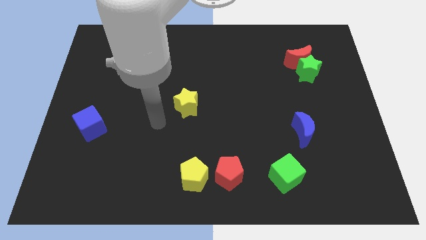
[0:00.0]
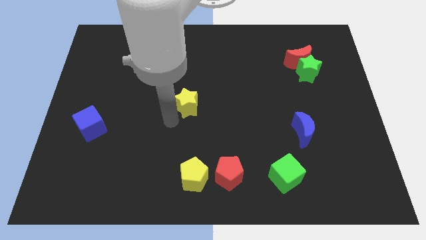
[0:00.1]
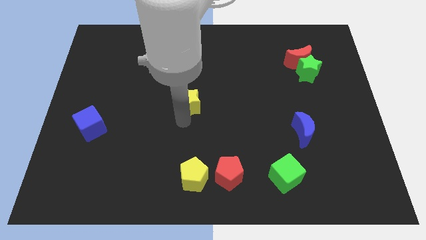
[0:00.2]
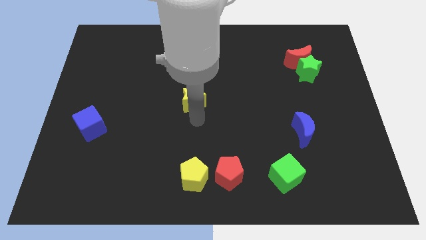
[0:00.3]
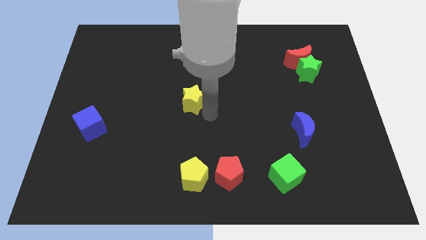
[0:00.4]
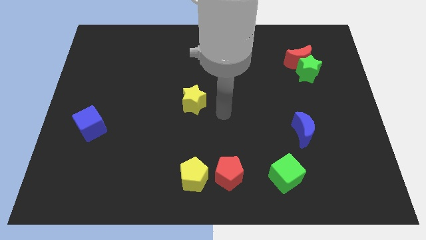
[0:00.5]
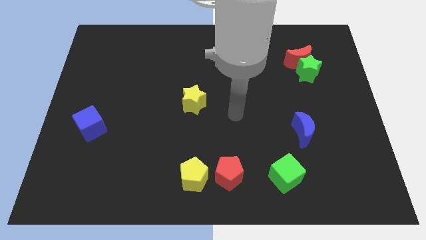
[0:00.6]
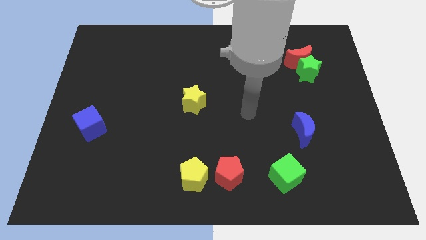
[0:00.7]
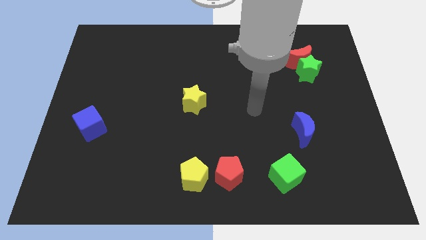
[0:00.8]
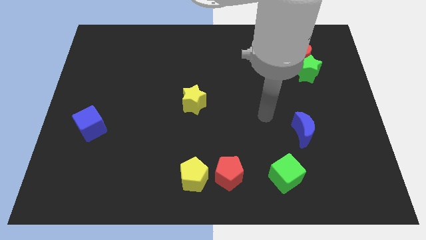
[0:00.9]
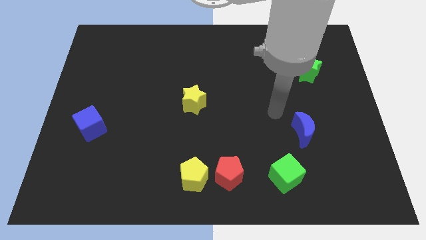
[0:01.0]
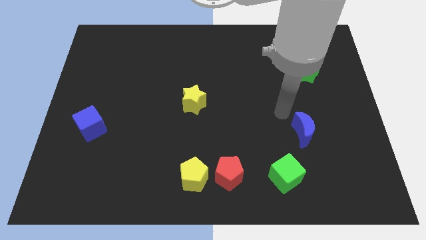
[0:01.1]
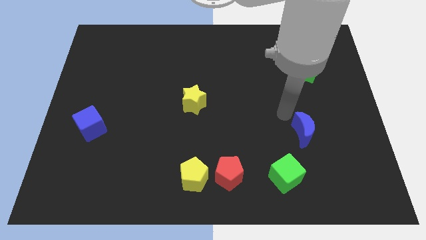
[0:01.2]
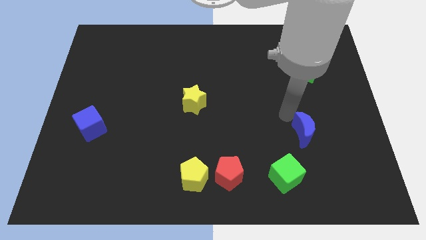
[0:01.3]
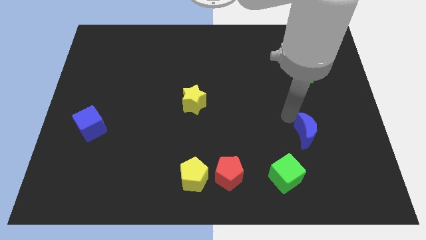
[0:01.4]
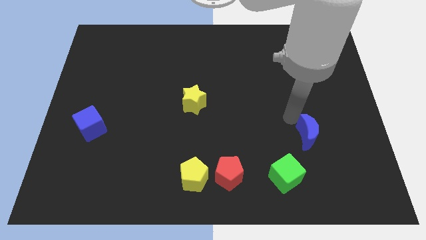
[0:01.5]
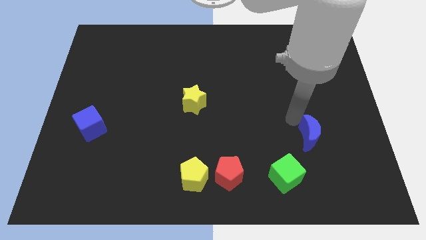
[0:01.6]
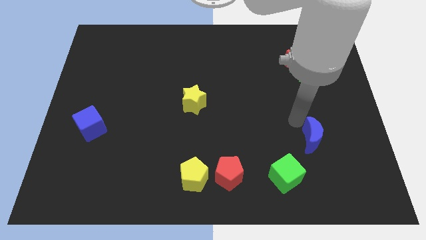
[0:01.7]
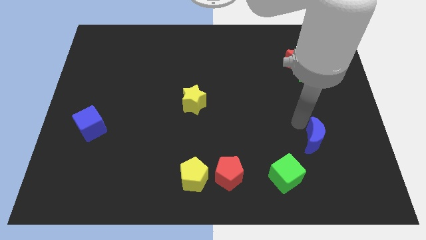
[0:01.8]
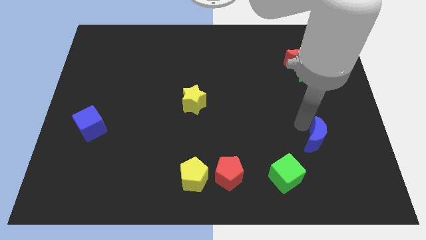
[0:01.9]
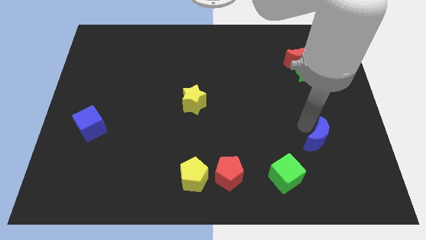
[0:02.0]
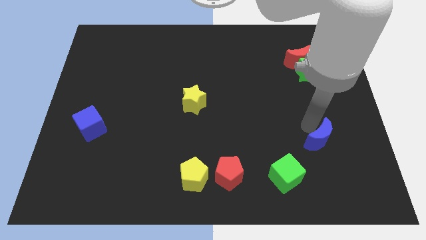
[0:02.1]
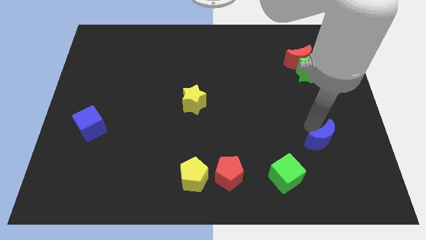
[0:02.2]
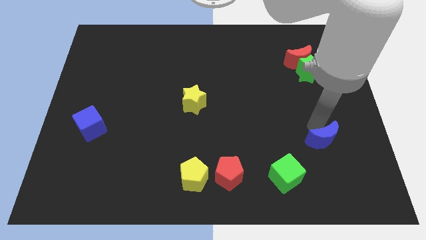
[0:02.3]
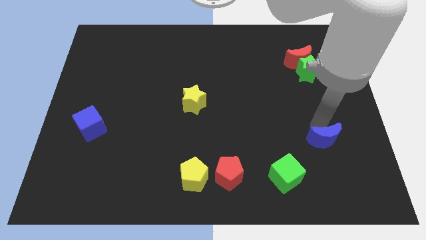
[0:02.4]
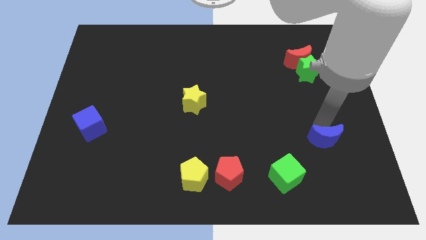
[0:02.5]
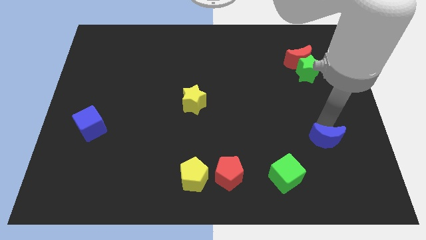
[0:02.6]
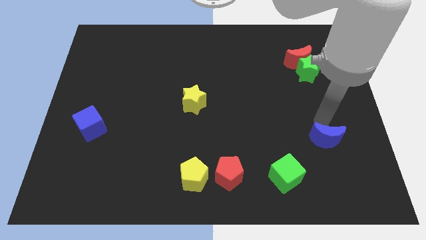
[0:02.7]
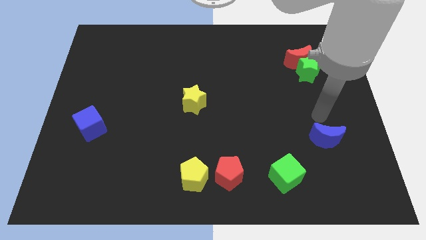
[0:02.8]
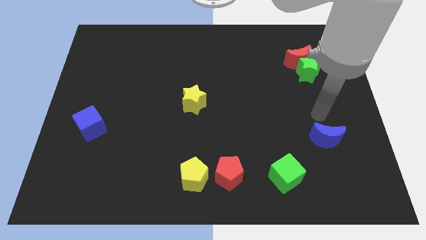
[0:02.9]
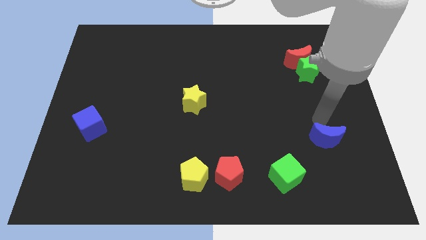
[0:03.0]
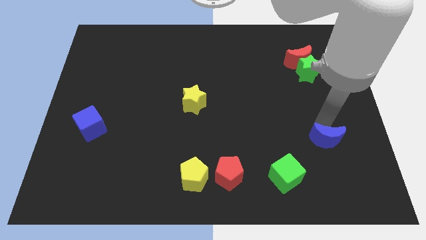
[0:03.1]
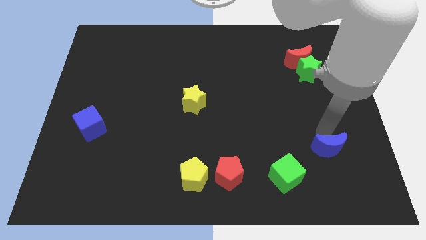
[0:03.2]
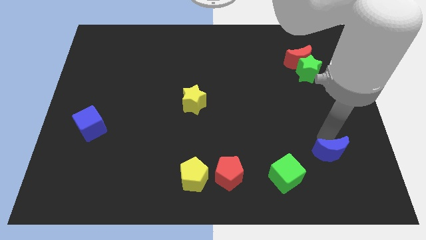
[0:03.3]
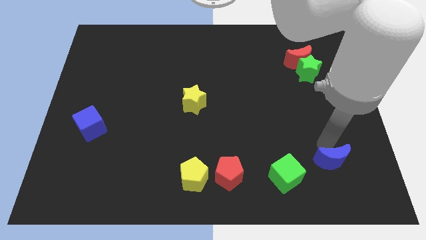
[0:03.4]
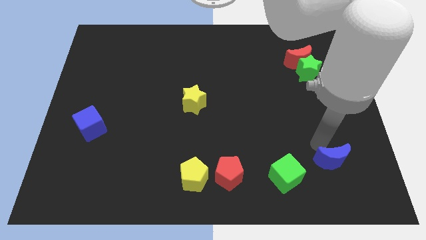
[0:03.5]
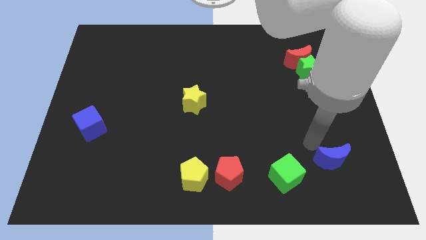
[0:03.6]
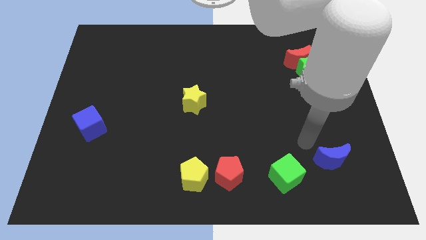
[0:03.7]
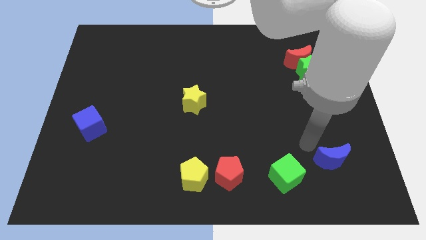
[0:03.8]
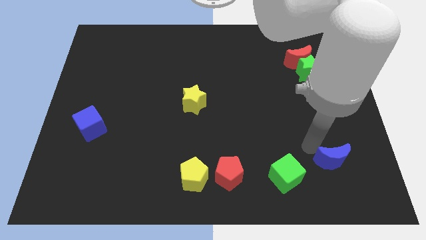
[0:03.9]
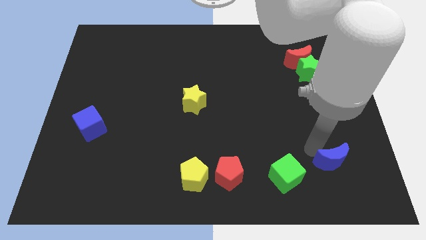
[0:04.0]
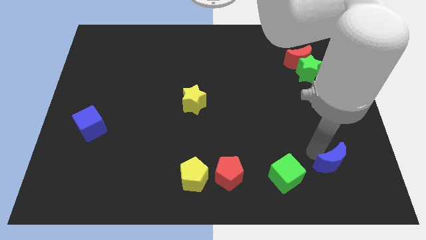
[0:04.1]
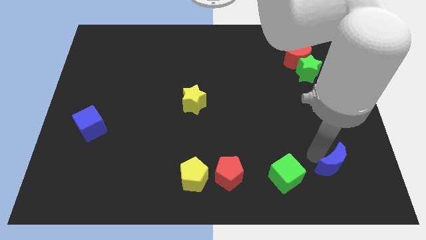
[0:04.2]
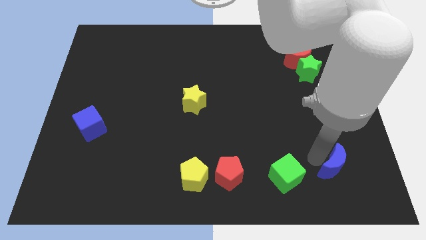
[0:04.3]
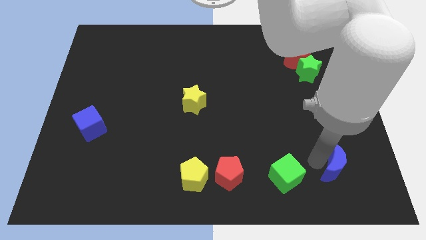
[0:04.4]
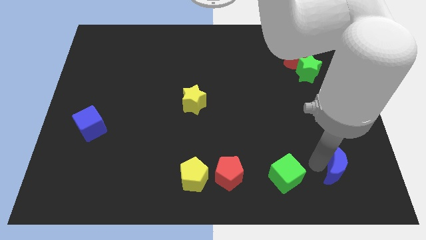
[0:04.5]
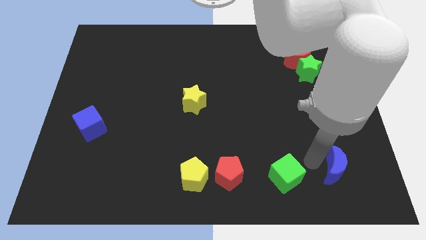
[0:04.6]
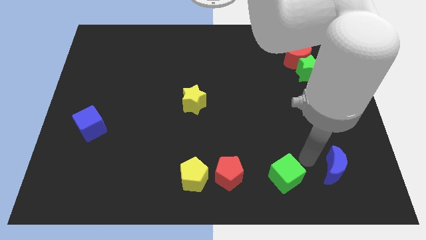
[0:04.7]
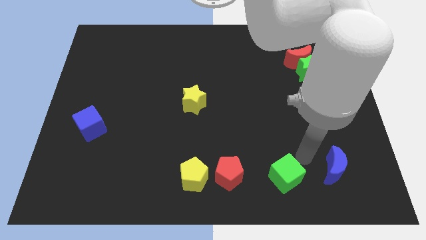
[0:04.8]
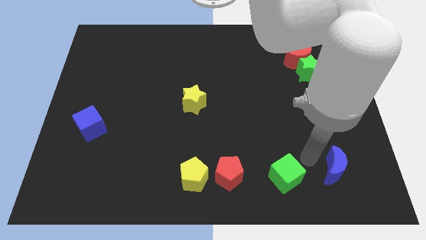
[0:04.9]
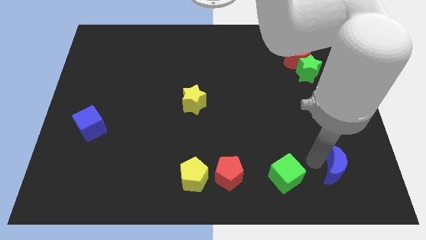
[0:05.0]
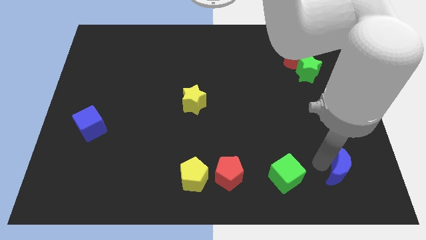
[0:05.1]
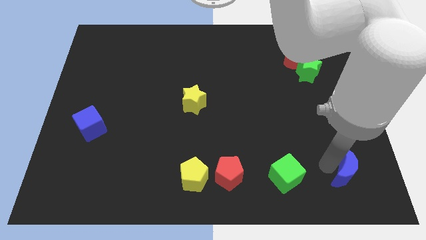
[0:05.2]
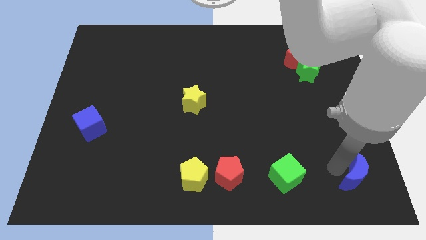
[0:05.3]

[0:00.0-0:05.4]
move the blue moon to the bottom right corner

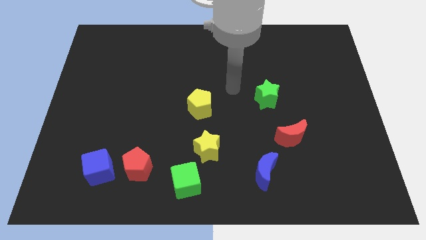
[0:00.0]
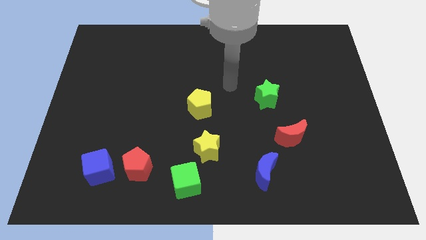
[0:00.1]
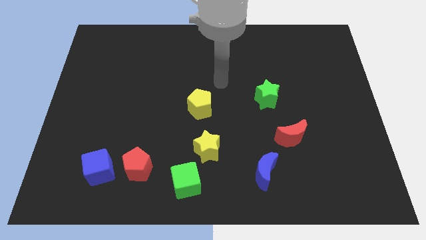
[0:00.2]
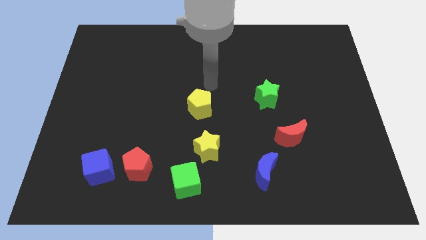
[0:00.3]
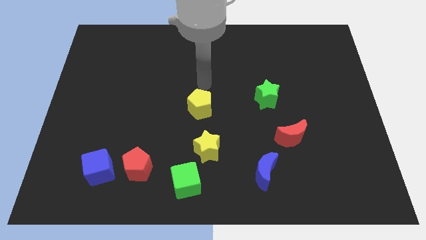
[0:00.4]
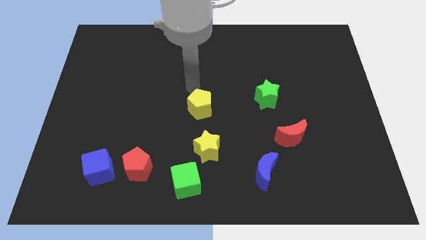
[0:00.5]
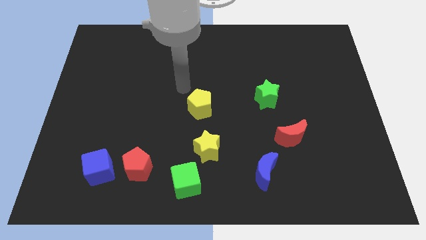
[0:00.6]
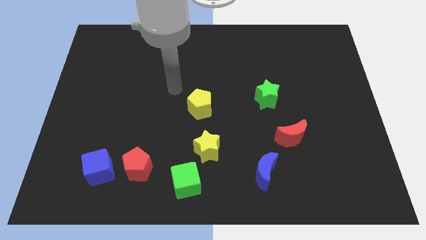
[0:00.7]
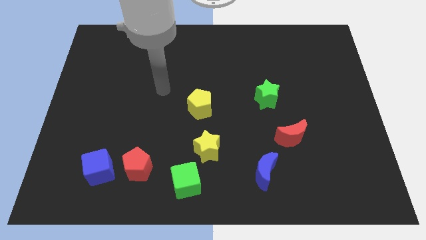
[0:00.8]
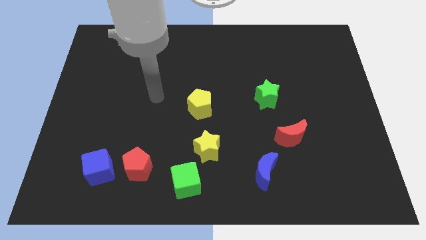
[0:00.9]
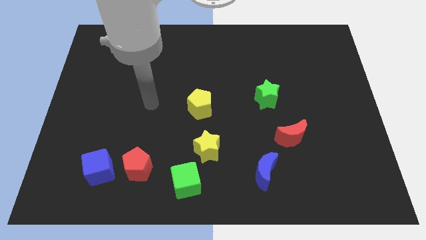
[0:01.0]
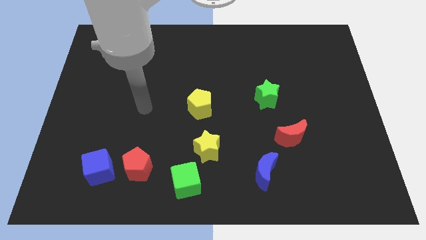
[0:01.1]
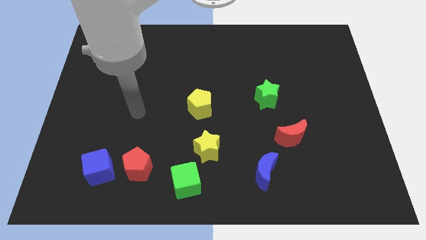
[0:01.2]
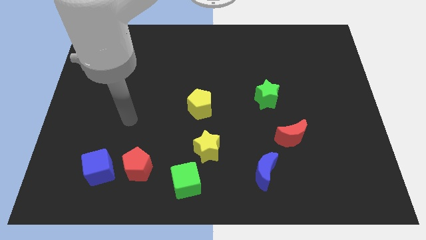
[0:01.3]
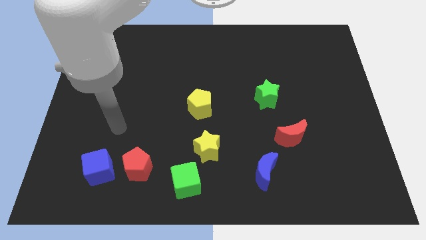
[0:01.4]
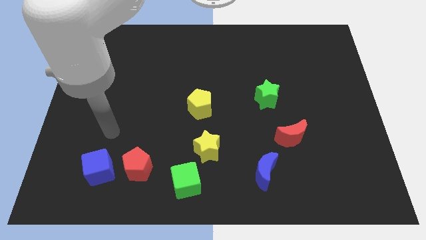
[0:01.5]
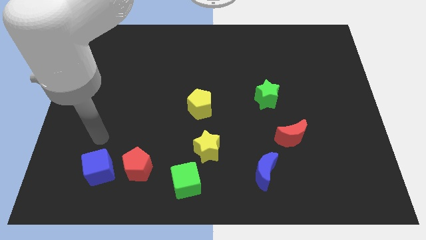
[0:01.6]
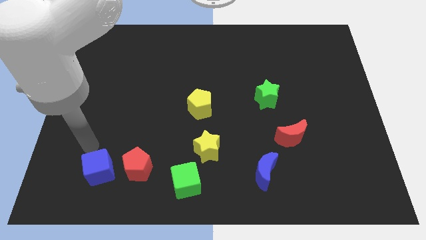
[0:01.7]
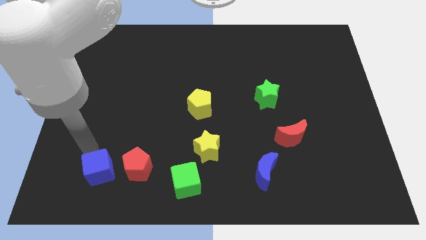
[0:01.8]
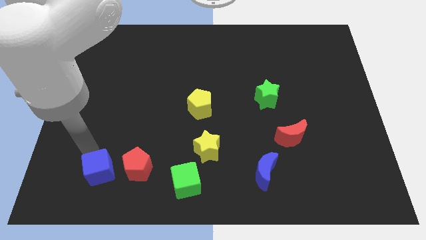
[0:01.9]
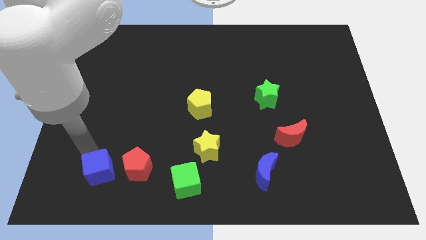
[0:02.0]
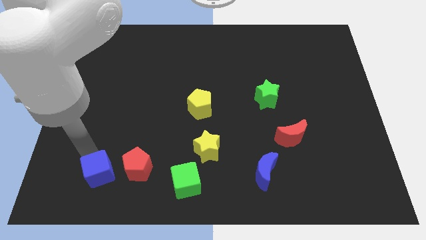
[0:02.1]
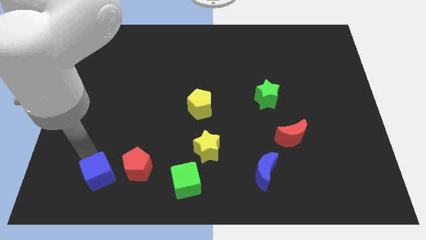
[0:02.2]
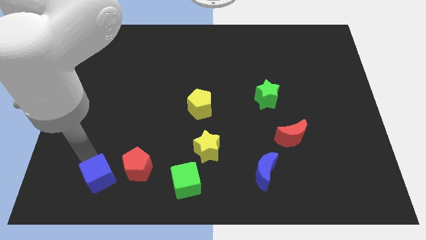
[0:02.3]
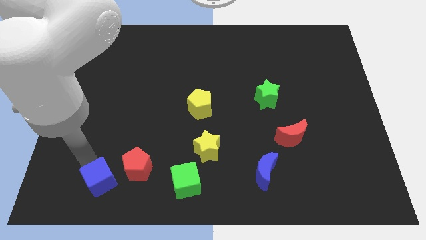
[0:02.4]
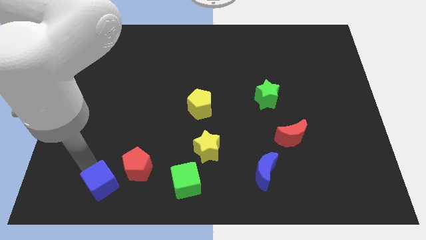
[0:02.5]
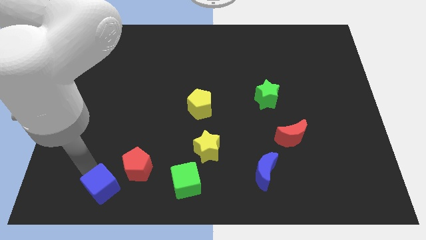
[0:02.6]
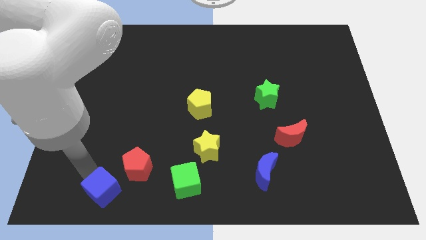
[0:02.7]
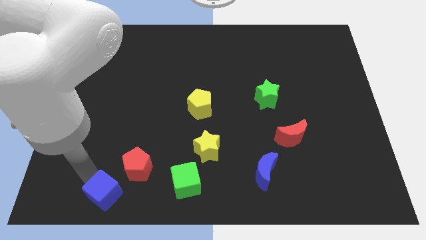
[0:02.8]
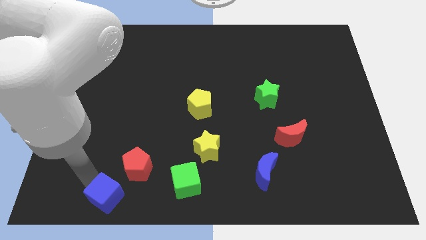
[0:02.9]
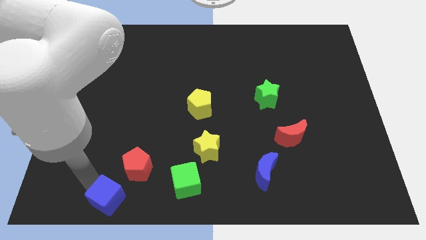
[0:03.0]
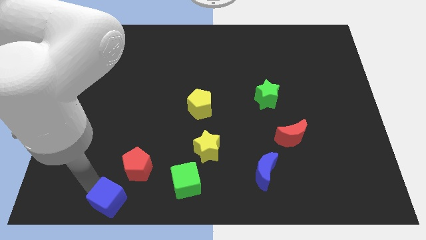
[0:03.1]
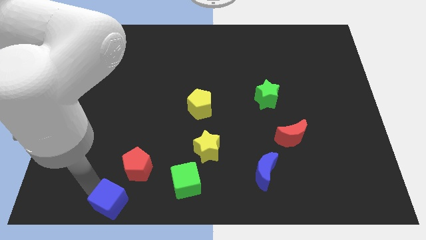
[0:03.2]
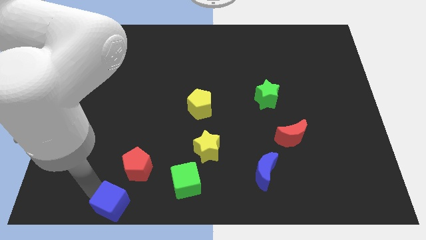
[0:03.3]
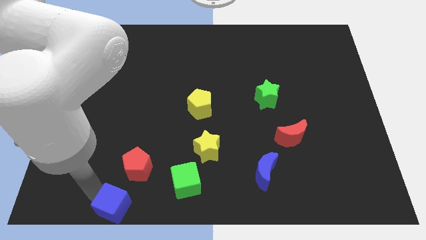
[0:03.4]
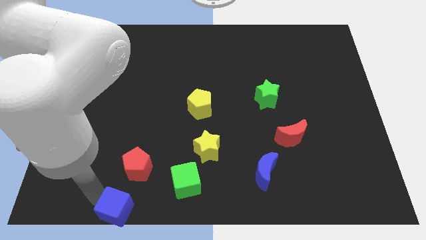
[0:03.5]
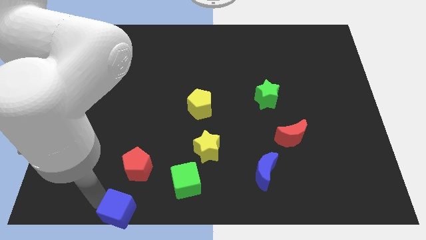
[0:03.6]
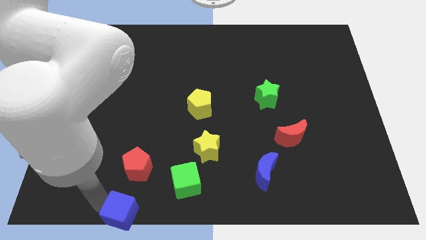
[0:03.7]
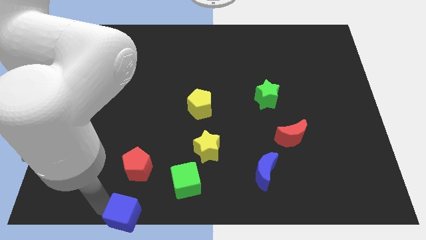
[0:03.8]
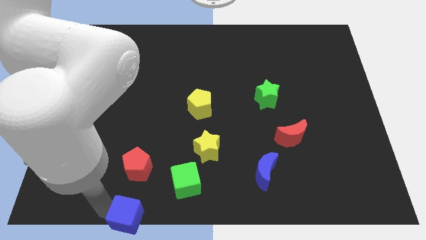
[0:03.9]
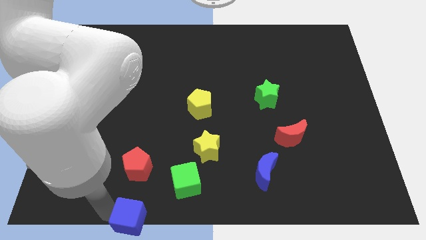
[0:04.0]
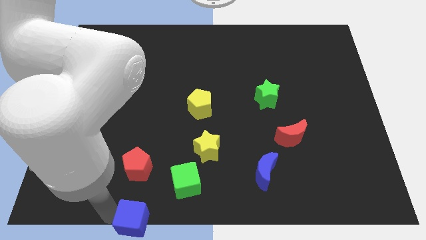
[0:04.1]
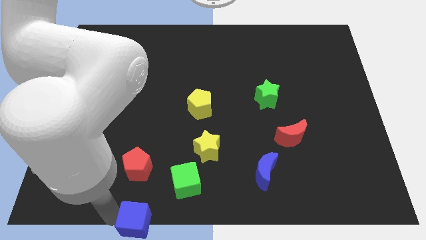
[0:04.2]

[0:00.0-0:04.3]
push the blue cube to the bottom
